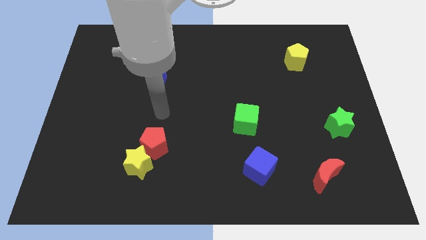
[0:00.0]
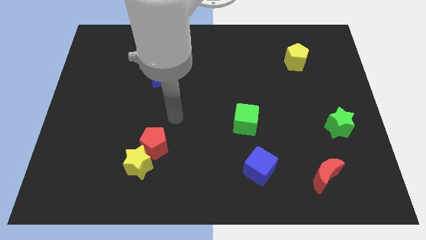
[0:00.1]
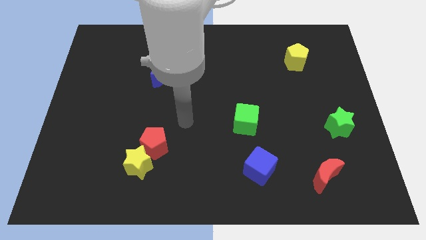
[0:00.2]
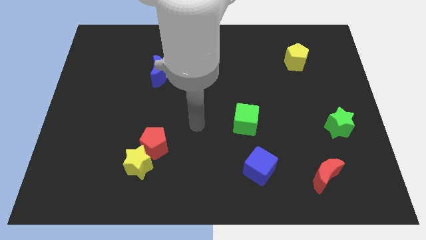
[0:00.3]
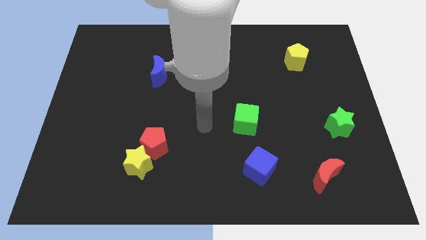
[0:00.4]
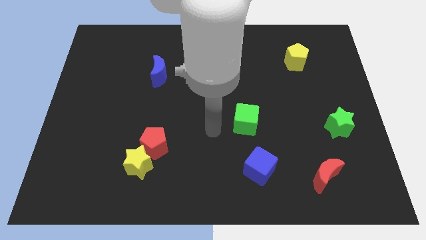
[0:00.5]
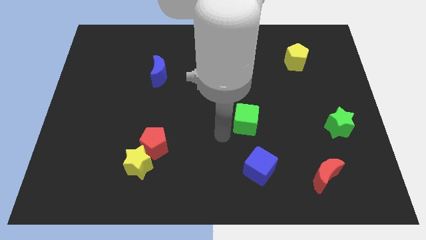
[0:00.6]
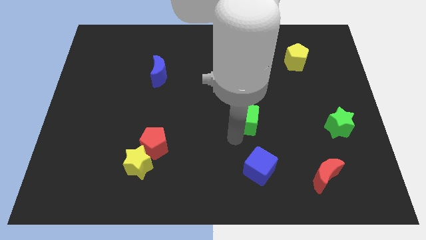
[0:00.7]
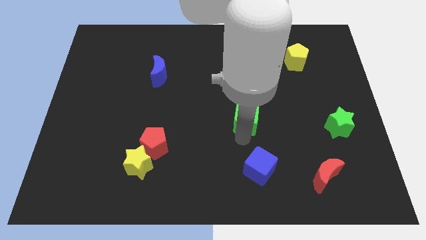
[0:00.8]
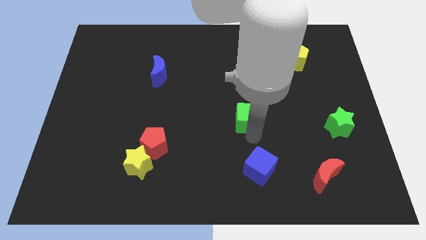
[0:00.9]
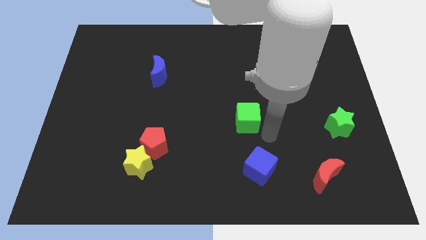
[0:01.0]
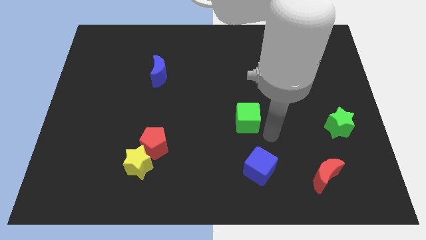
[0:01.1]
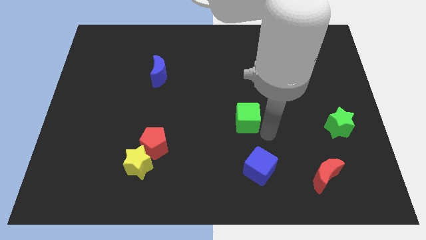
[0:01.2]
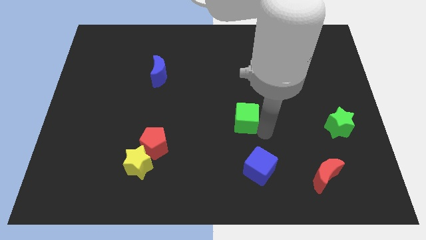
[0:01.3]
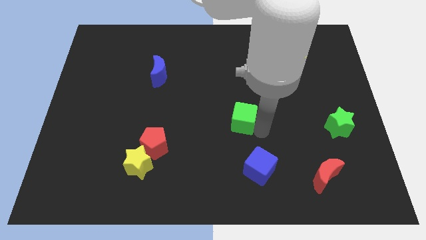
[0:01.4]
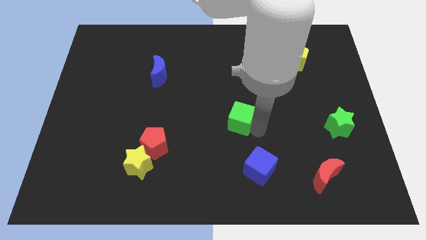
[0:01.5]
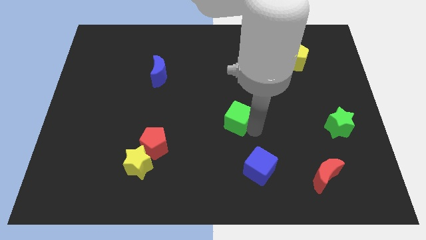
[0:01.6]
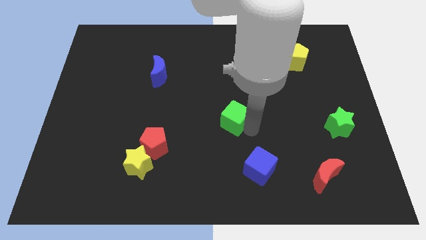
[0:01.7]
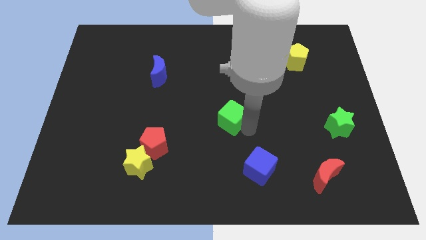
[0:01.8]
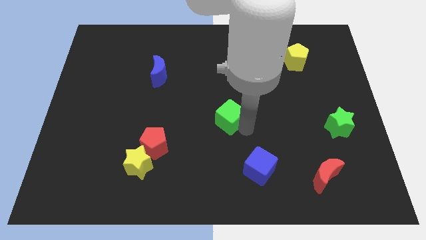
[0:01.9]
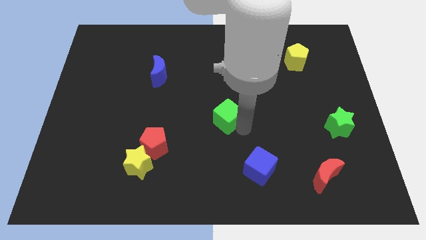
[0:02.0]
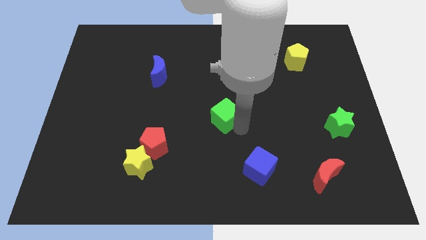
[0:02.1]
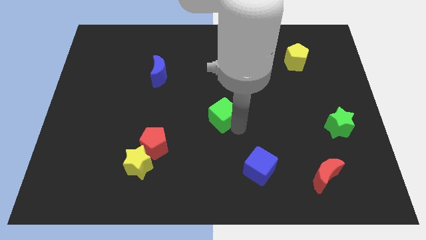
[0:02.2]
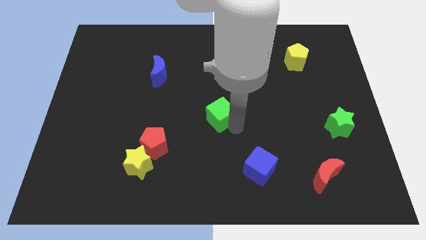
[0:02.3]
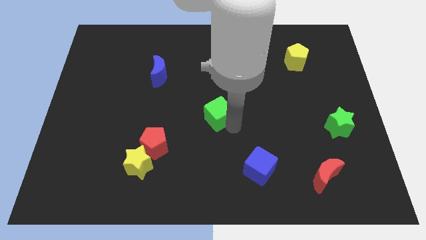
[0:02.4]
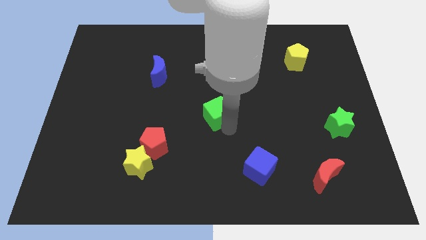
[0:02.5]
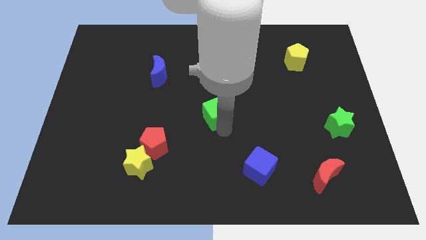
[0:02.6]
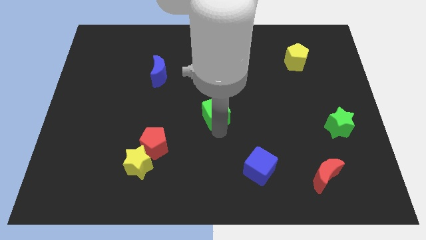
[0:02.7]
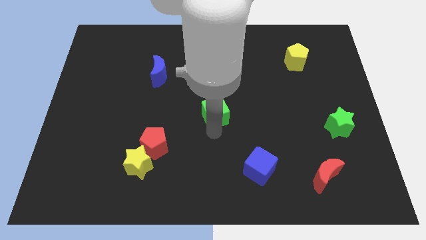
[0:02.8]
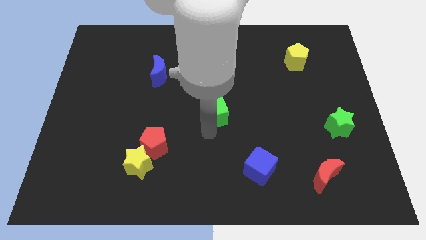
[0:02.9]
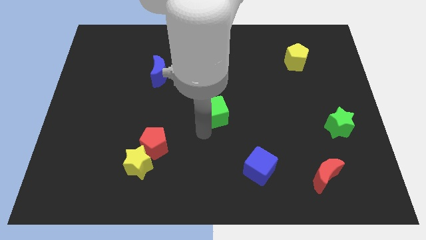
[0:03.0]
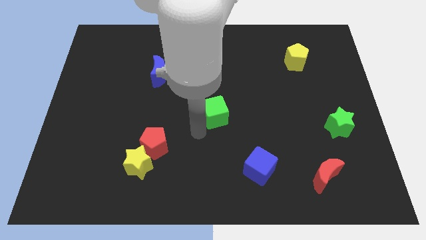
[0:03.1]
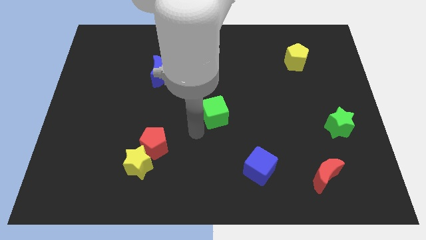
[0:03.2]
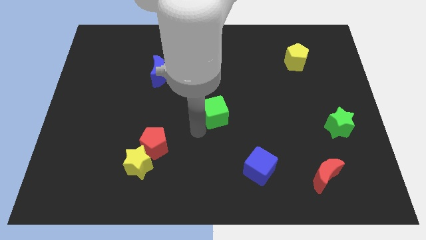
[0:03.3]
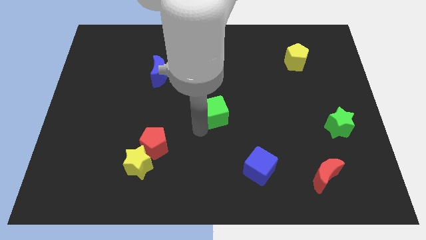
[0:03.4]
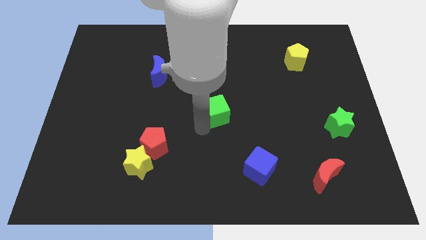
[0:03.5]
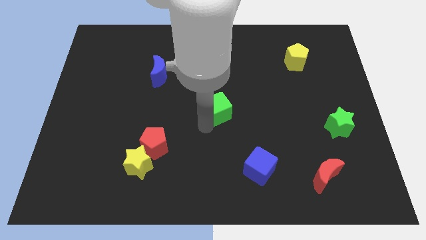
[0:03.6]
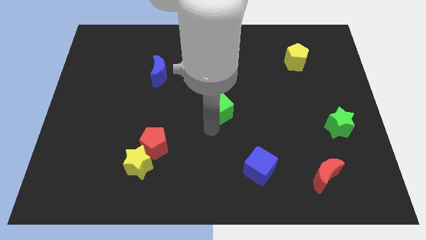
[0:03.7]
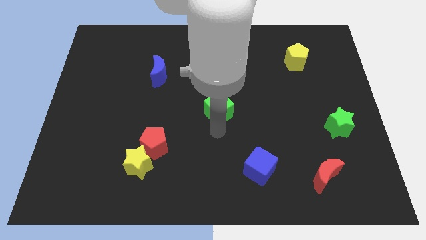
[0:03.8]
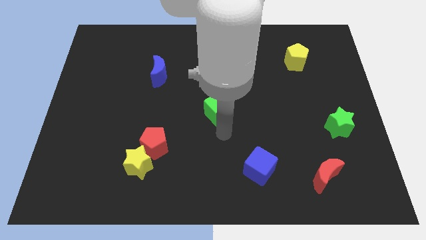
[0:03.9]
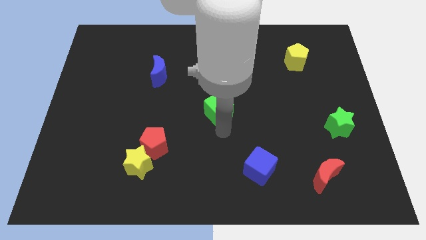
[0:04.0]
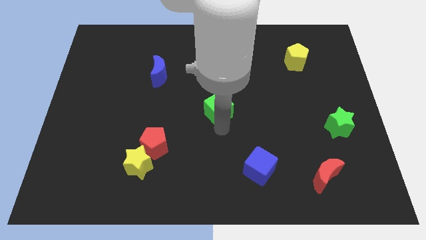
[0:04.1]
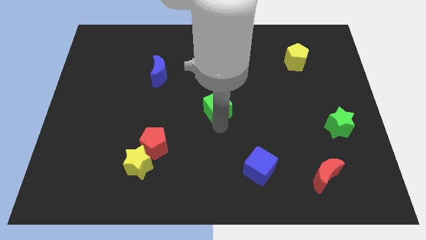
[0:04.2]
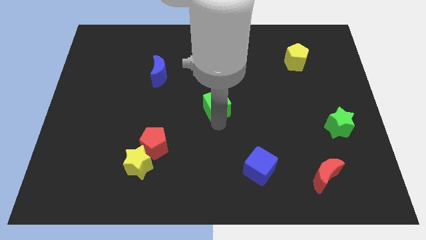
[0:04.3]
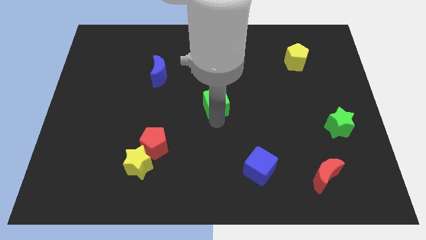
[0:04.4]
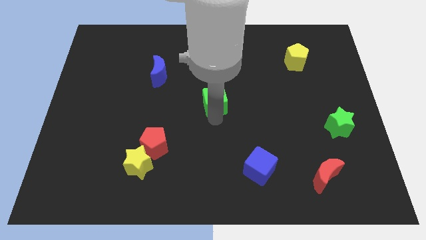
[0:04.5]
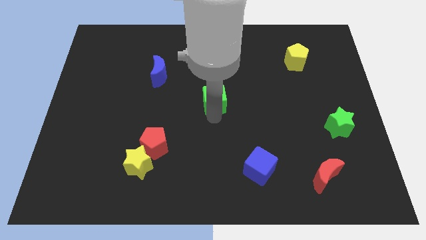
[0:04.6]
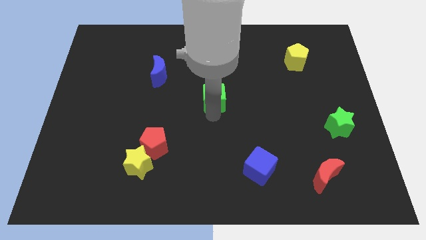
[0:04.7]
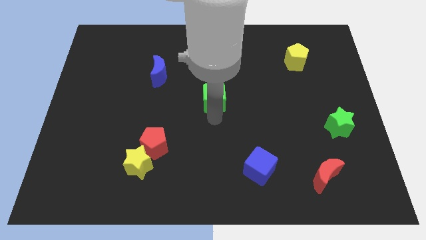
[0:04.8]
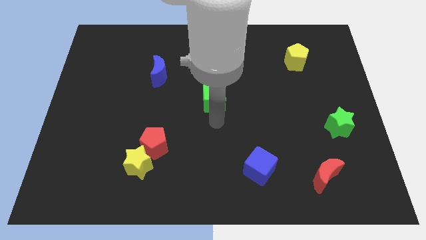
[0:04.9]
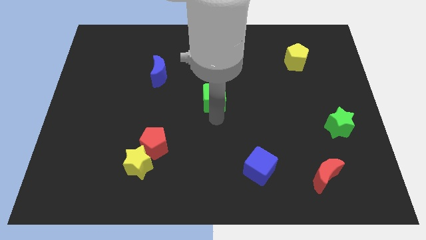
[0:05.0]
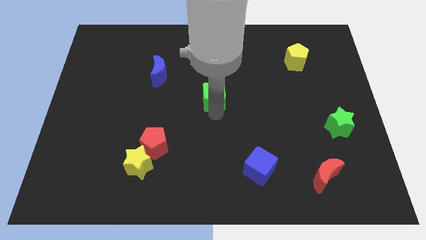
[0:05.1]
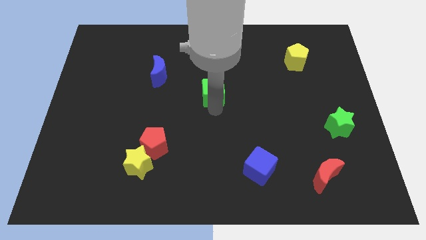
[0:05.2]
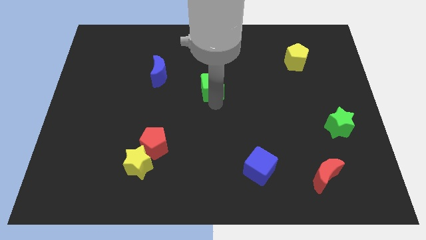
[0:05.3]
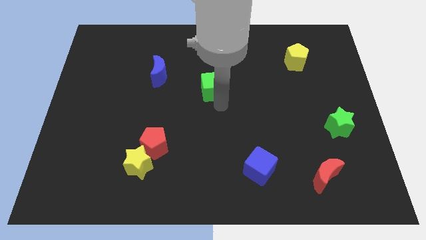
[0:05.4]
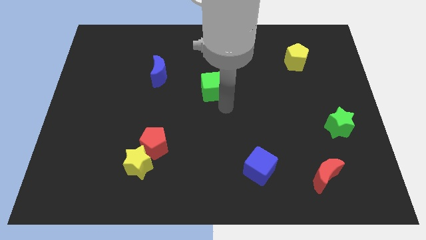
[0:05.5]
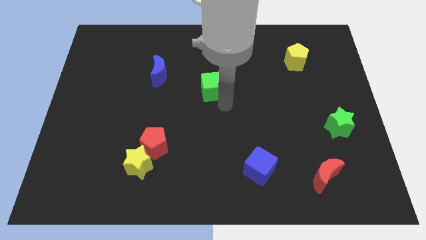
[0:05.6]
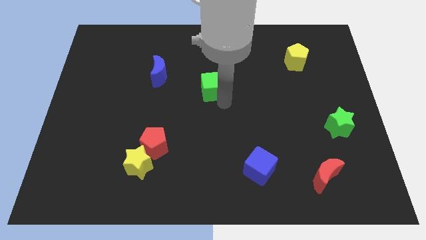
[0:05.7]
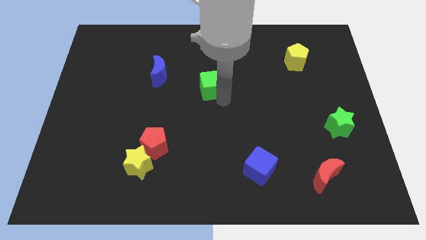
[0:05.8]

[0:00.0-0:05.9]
push the green cube right of the blue moon

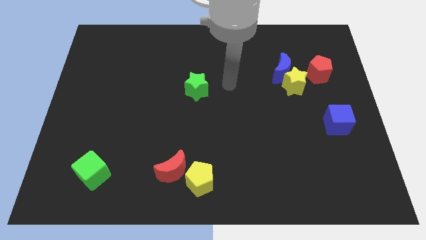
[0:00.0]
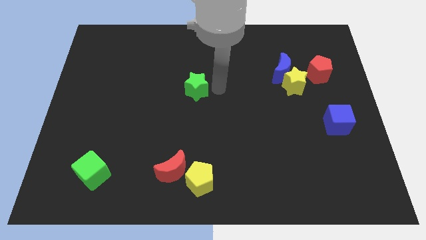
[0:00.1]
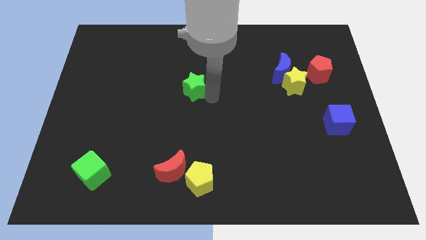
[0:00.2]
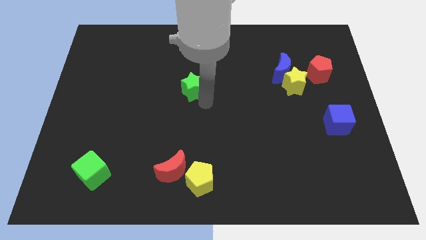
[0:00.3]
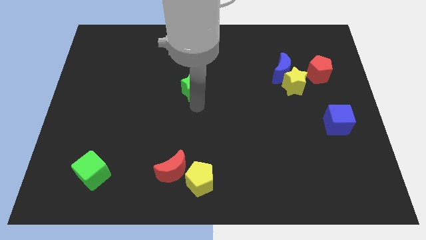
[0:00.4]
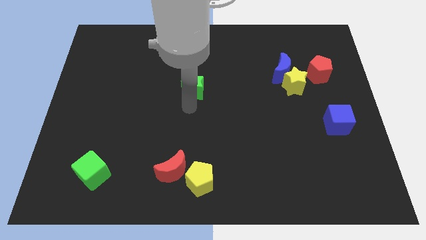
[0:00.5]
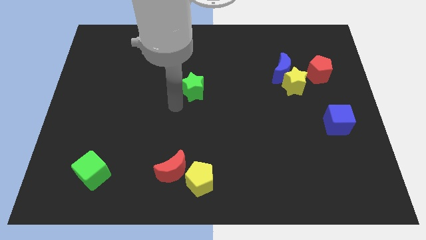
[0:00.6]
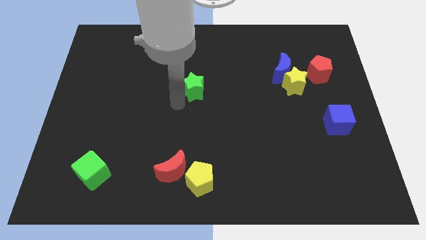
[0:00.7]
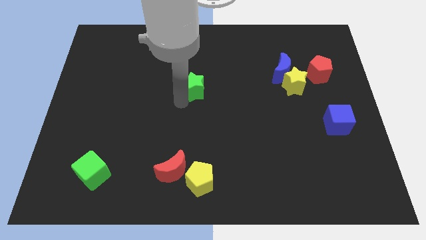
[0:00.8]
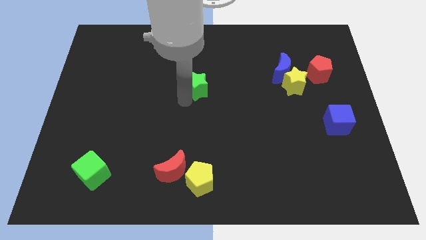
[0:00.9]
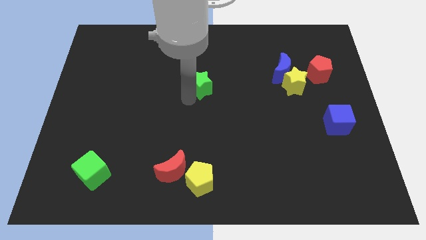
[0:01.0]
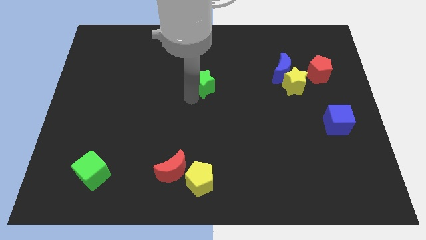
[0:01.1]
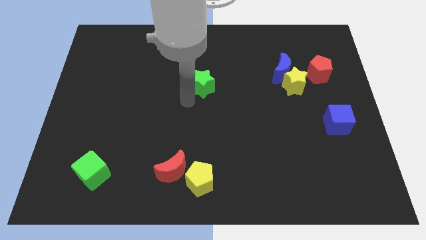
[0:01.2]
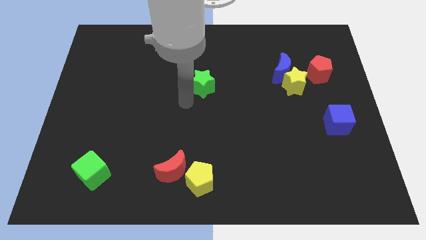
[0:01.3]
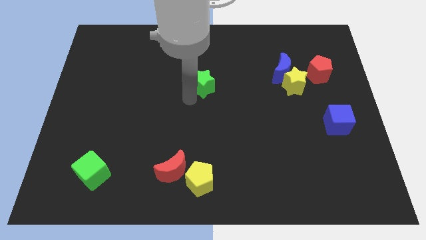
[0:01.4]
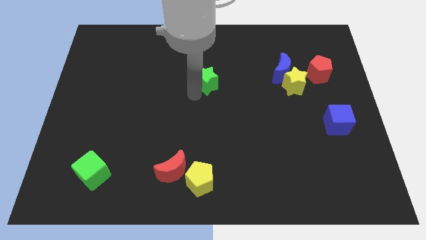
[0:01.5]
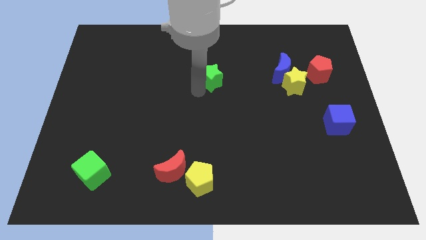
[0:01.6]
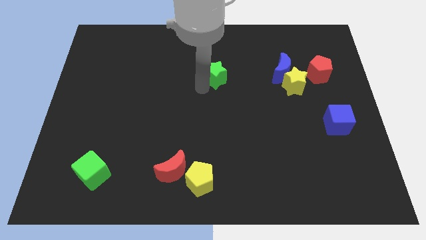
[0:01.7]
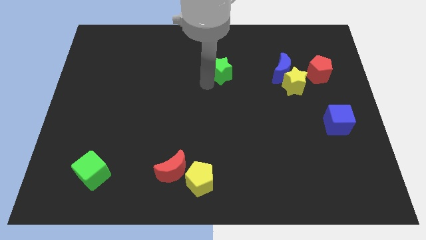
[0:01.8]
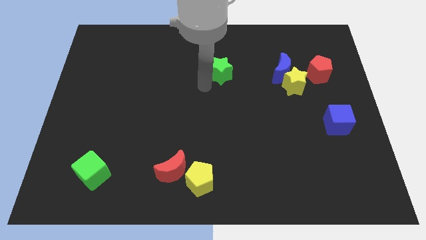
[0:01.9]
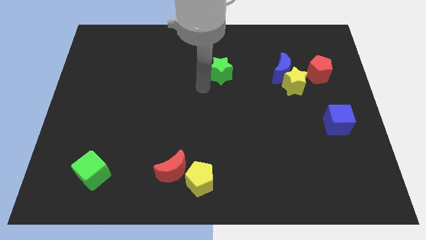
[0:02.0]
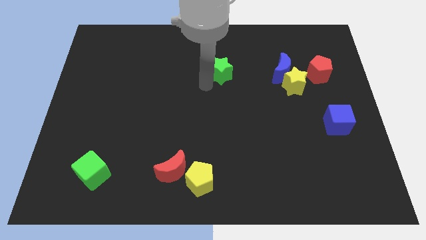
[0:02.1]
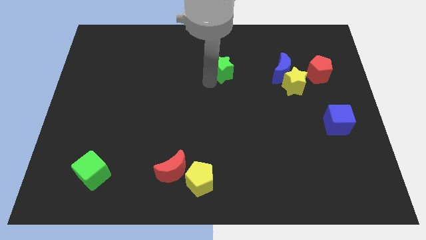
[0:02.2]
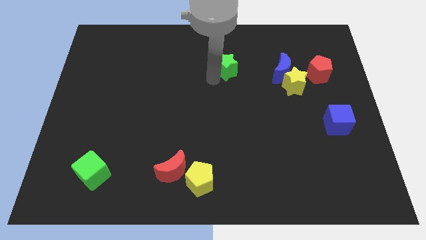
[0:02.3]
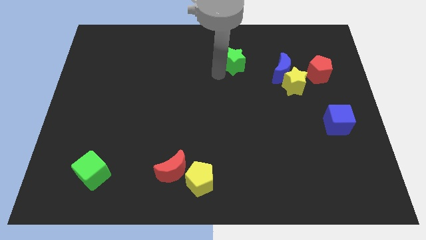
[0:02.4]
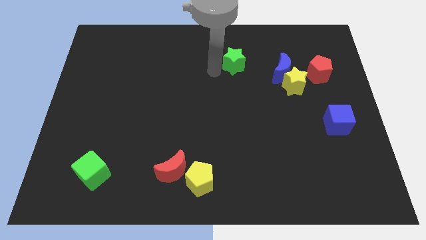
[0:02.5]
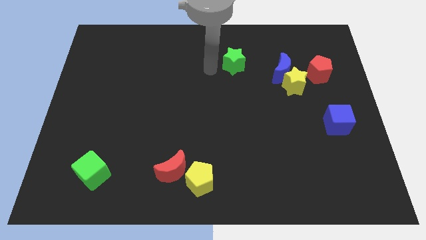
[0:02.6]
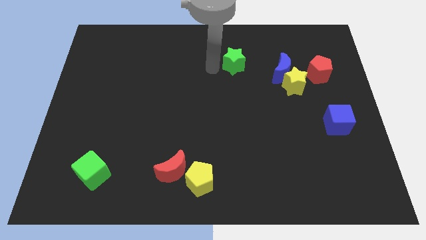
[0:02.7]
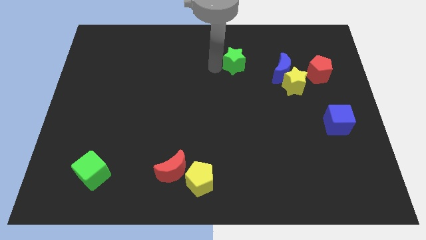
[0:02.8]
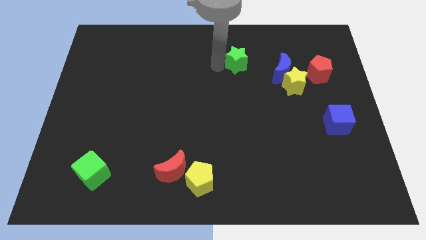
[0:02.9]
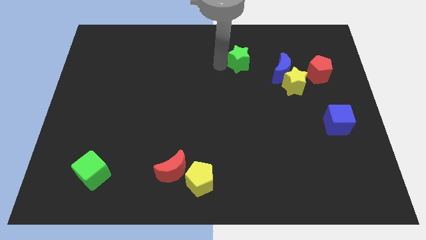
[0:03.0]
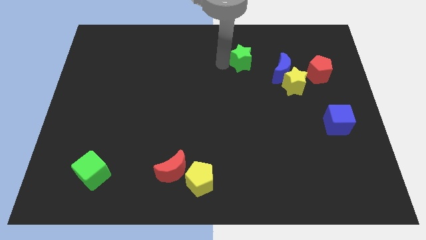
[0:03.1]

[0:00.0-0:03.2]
move the green star to the top left side of the blue moon
